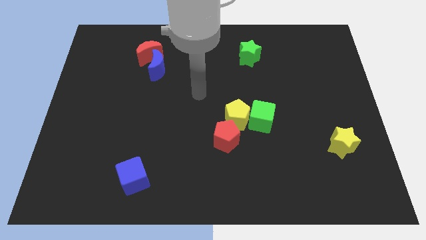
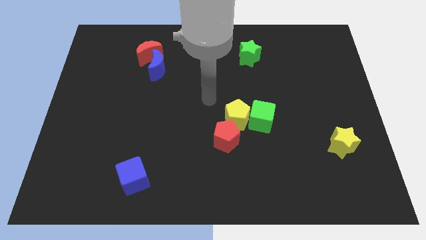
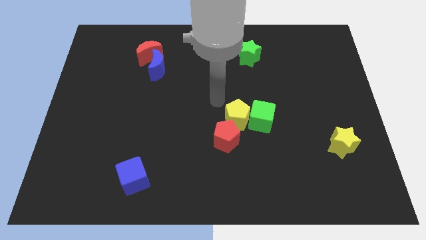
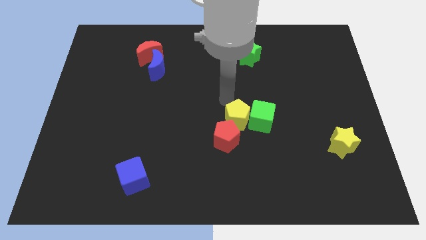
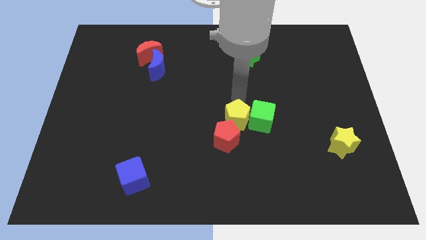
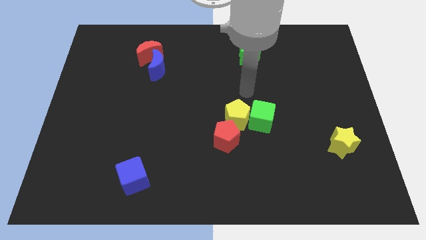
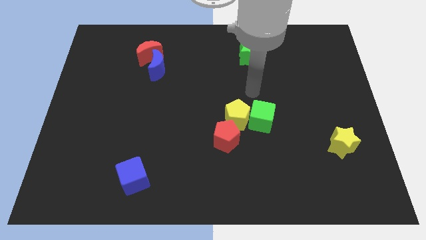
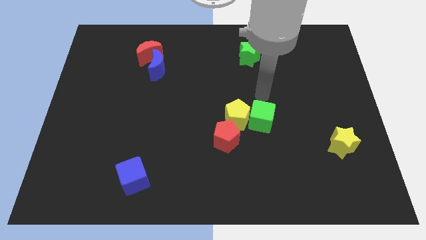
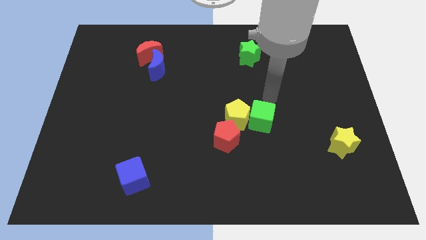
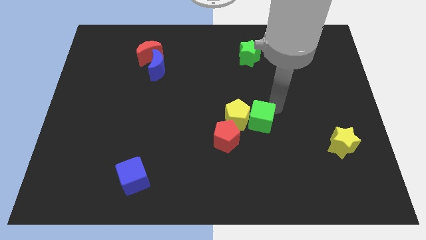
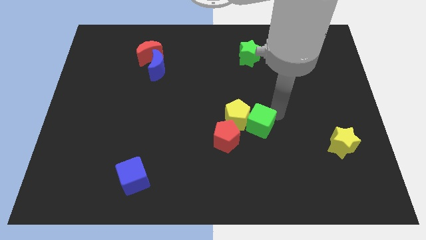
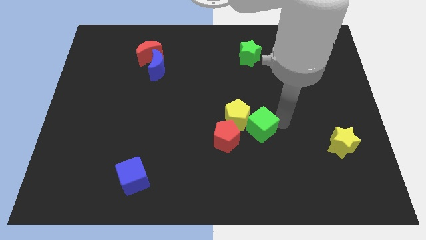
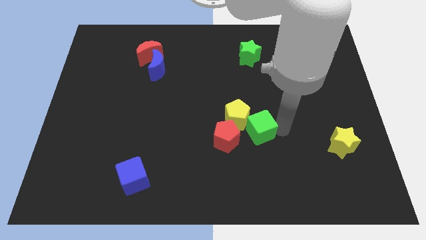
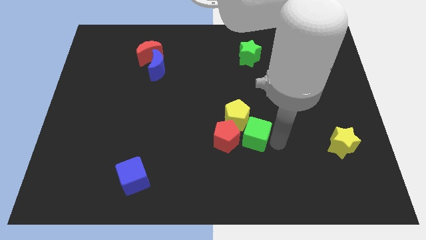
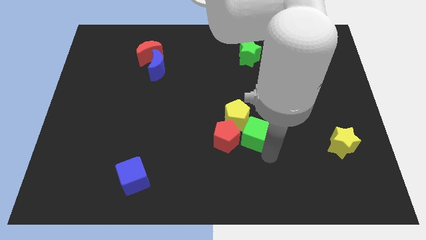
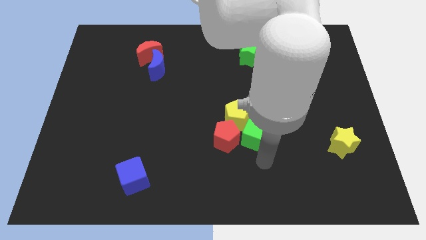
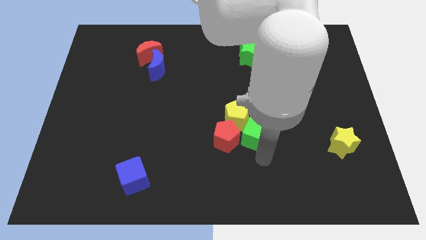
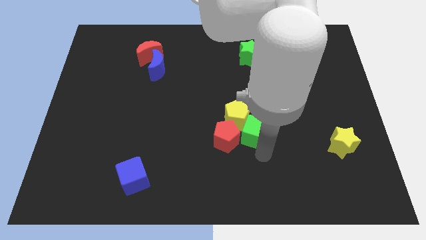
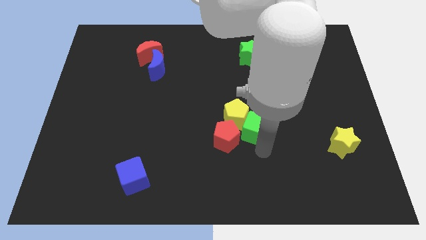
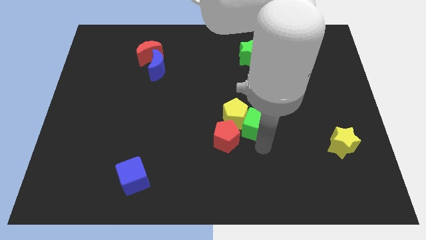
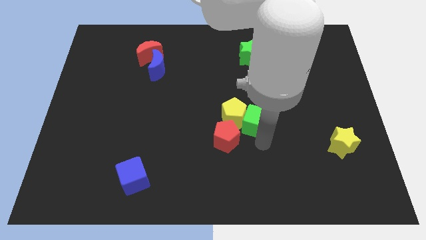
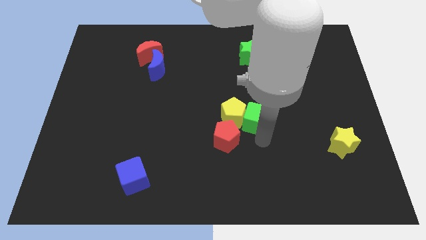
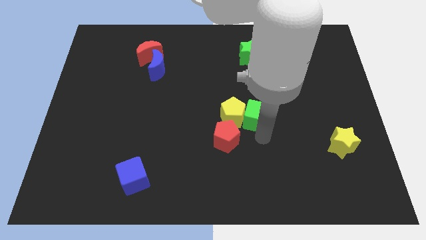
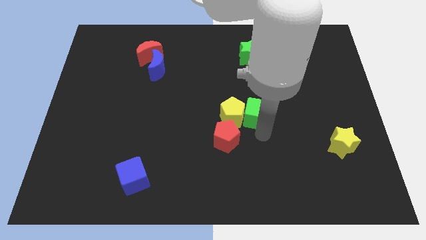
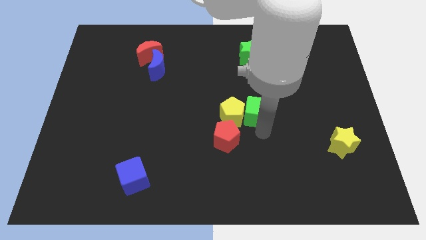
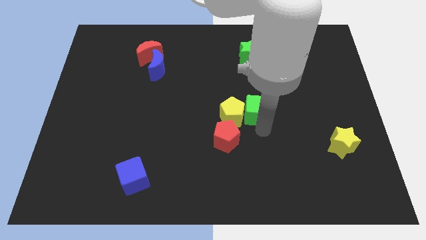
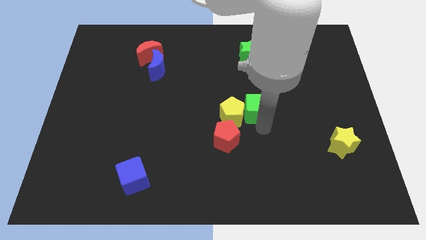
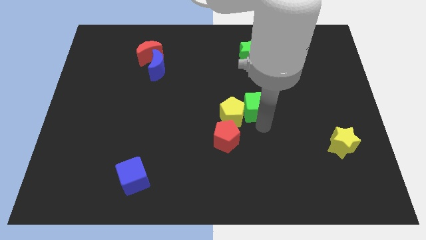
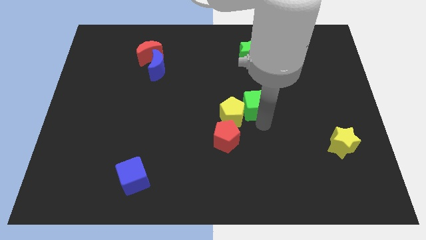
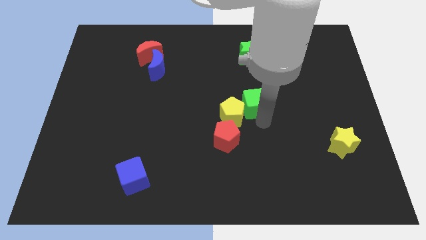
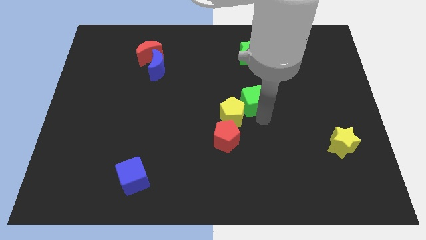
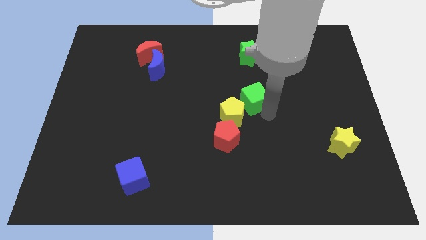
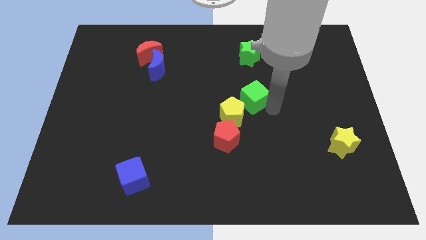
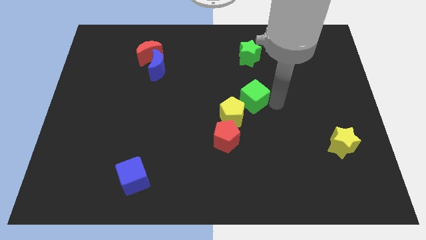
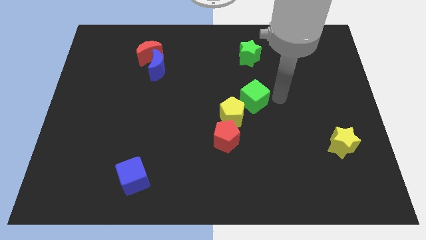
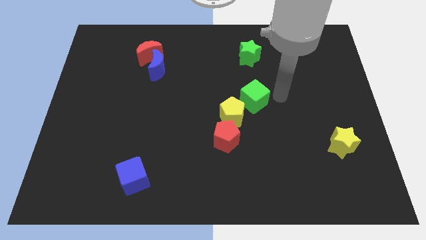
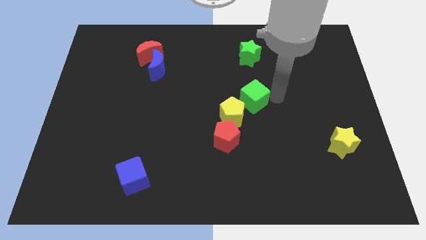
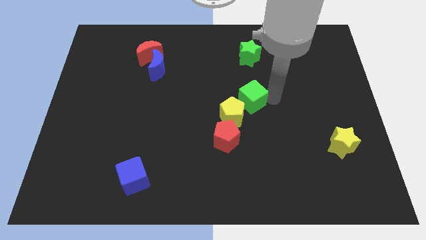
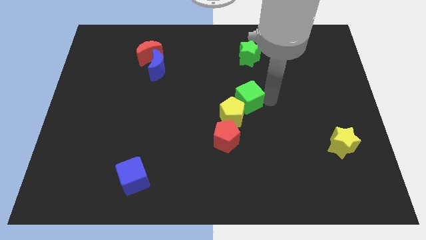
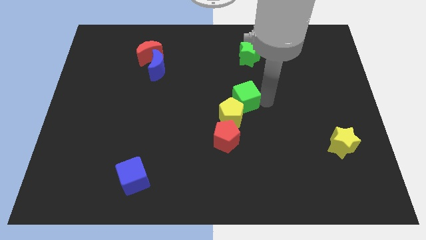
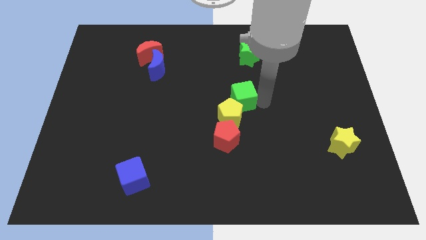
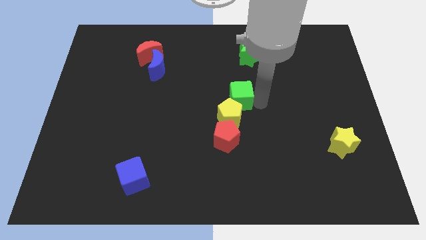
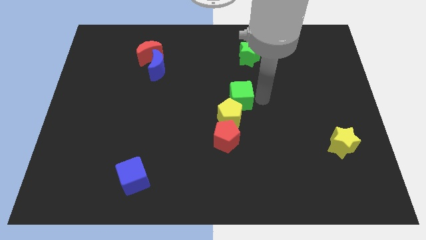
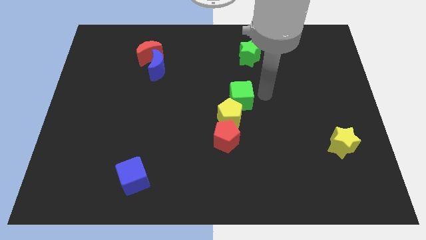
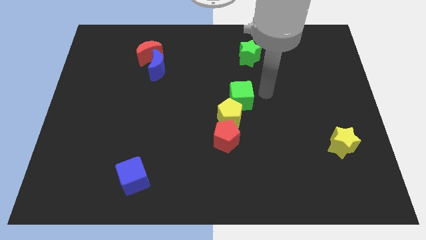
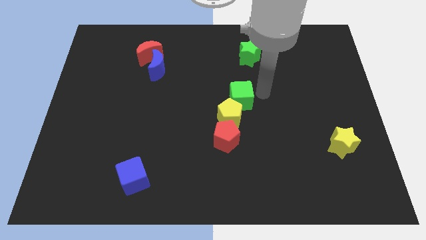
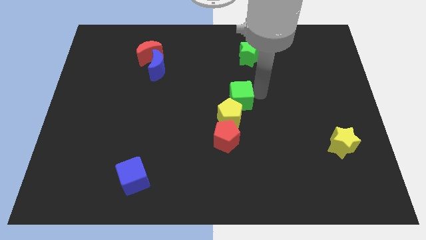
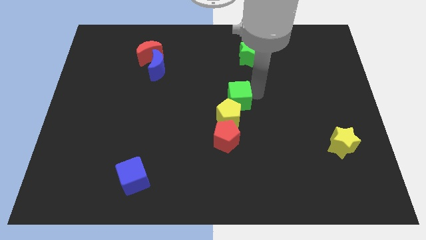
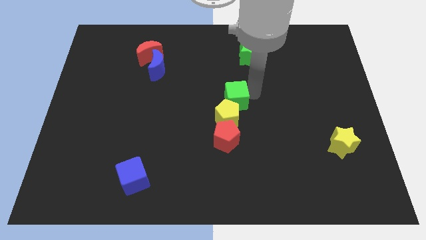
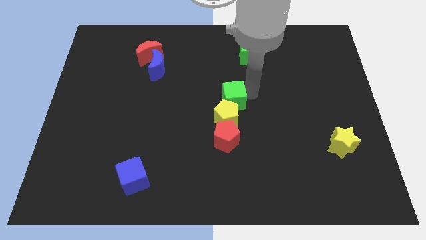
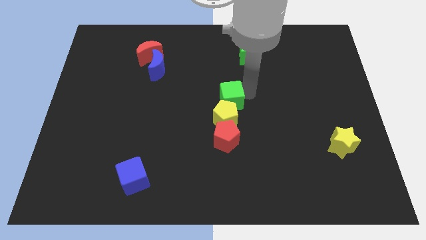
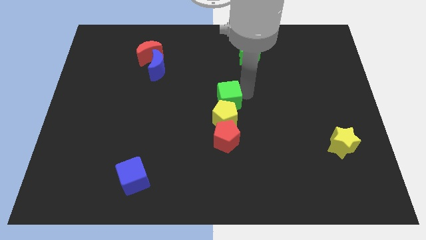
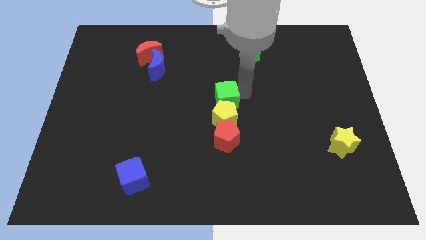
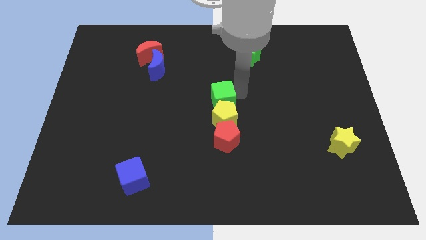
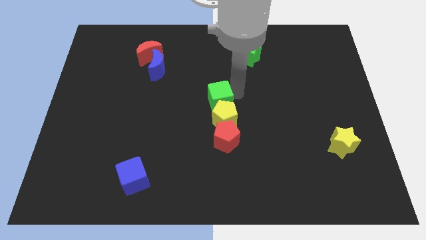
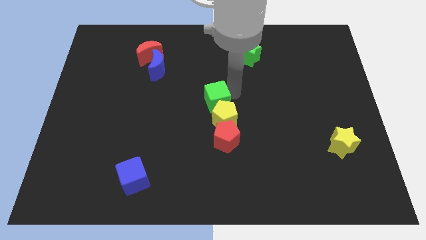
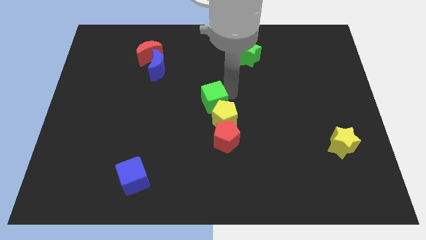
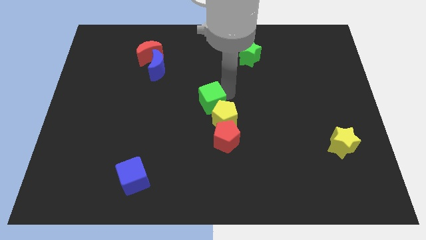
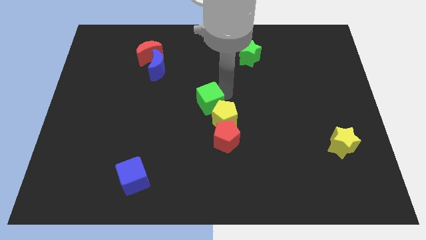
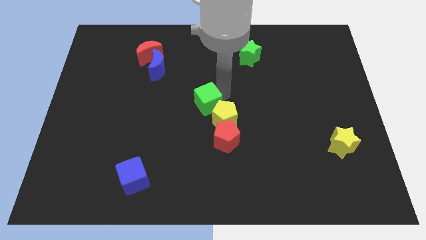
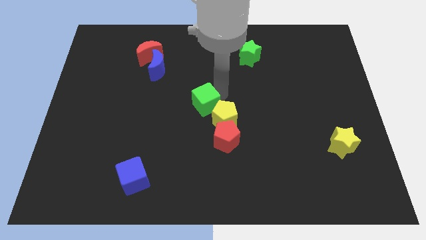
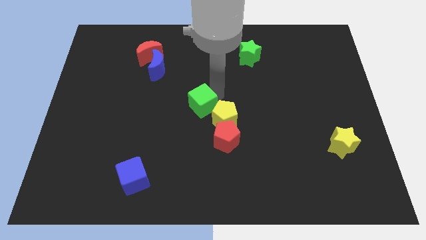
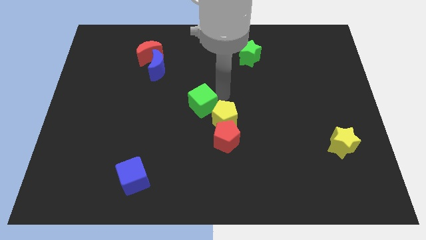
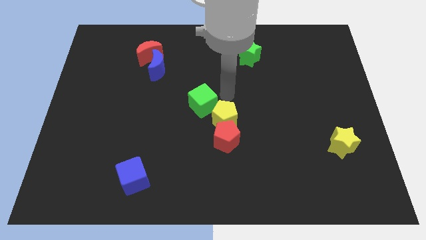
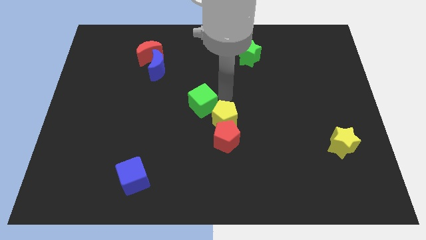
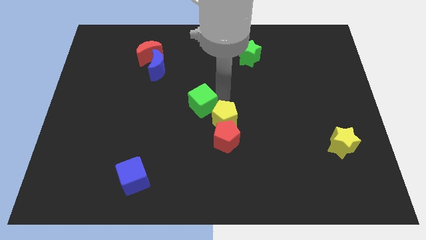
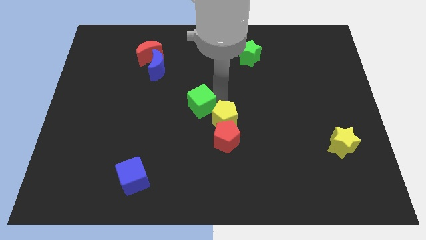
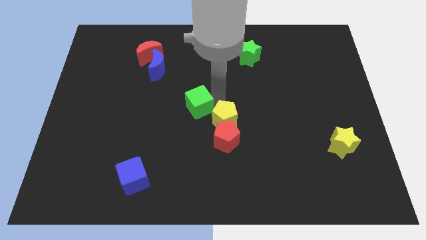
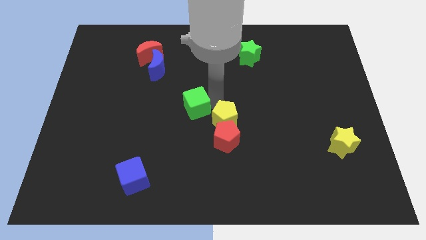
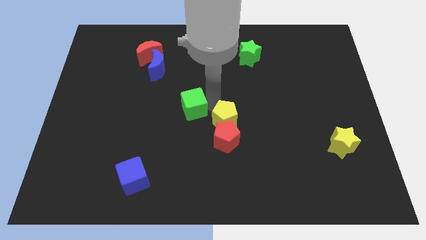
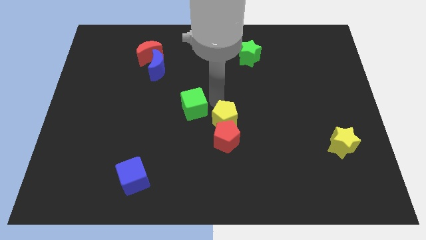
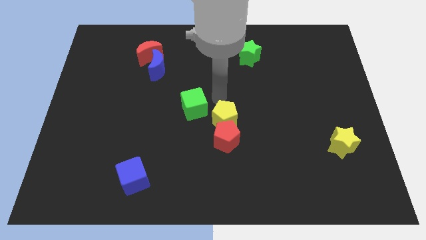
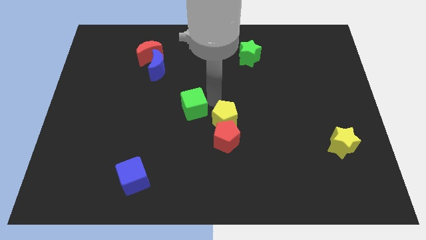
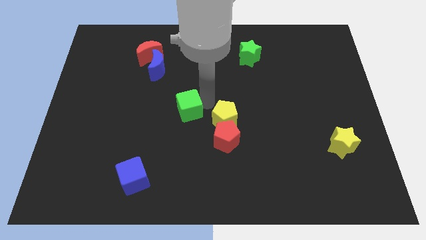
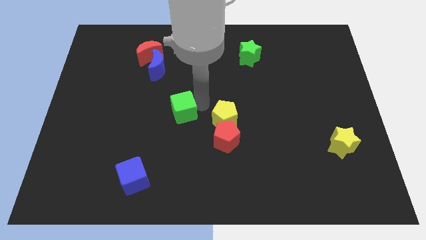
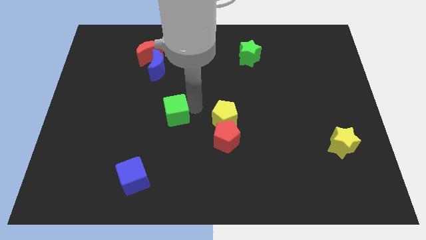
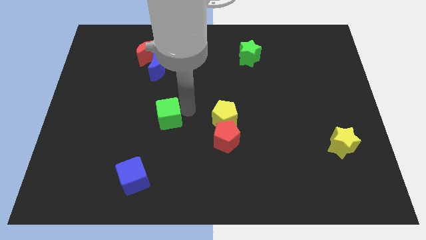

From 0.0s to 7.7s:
slide the green cube left
